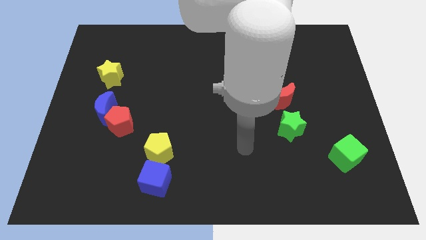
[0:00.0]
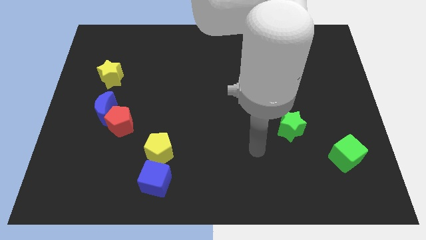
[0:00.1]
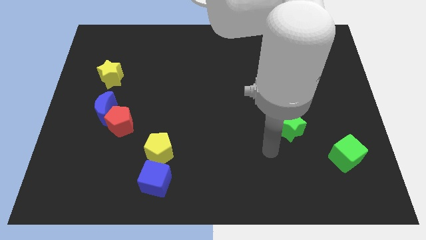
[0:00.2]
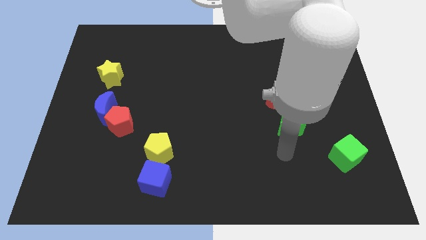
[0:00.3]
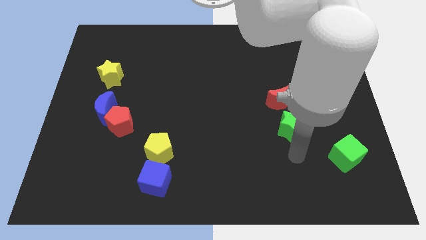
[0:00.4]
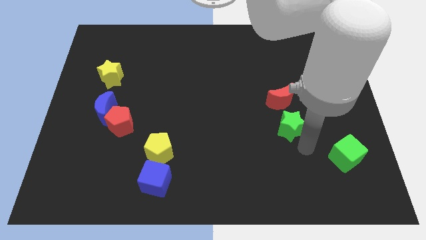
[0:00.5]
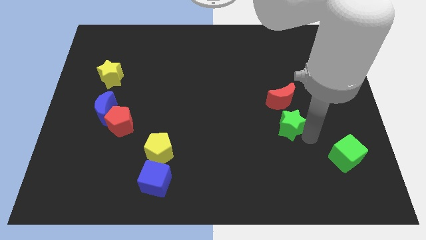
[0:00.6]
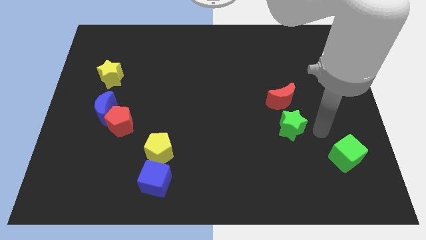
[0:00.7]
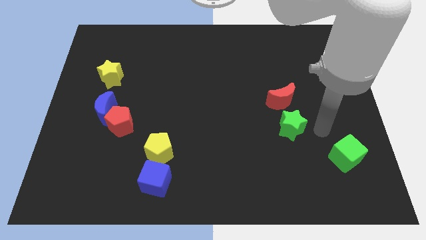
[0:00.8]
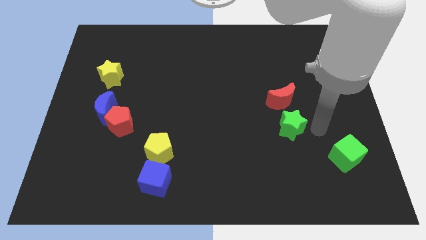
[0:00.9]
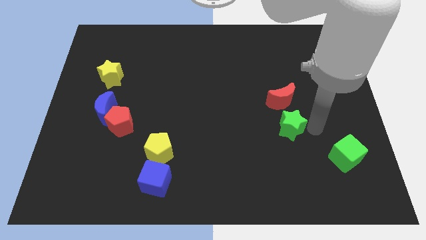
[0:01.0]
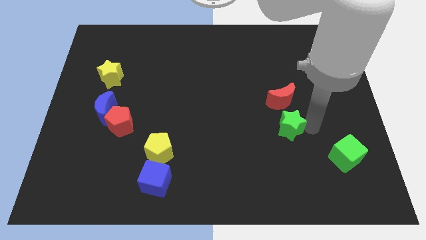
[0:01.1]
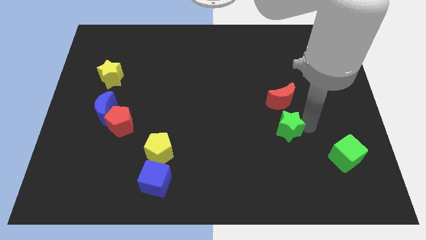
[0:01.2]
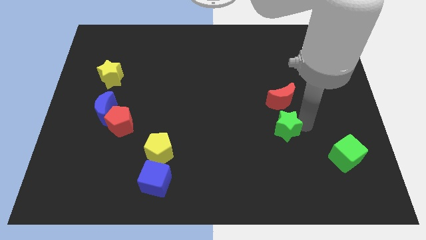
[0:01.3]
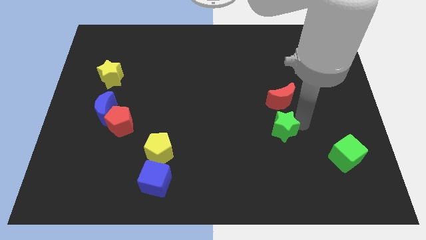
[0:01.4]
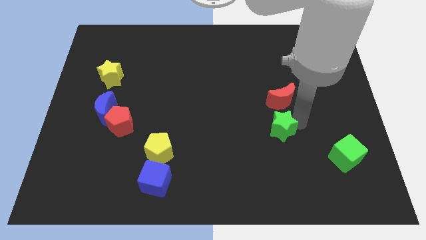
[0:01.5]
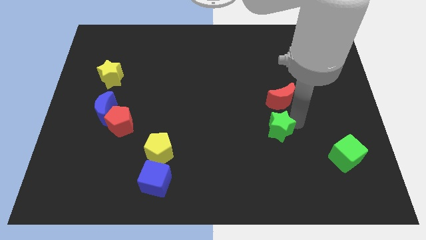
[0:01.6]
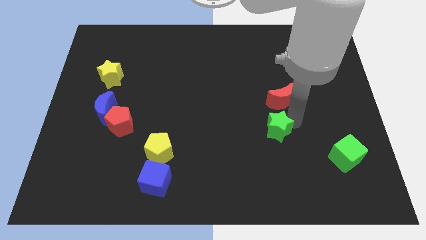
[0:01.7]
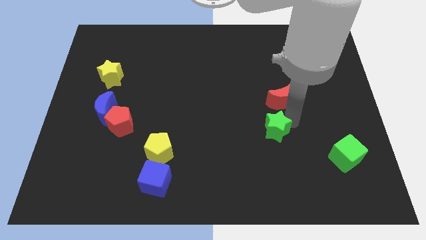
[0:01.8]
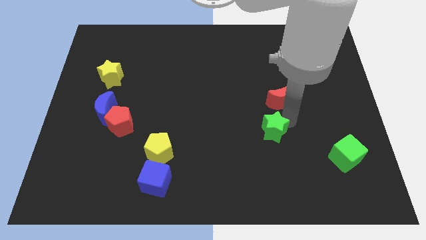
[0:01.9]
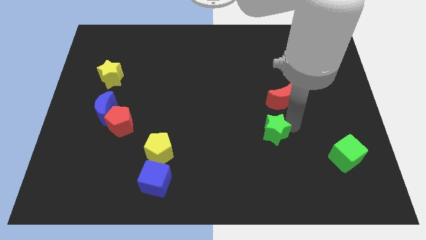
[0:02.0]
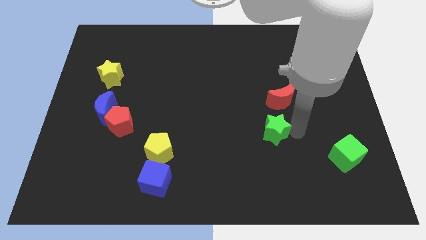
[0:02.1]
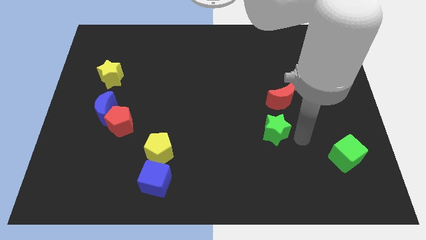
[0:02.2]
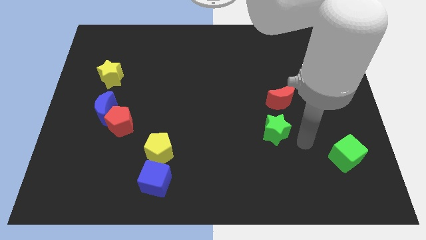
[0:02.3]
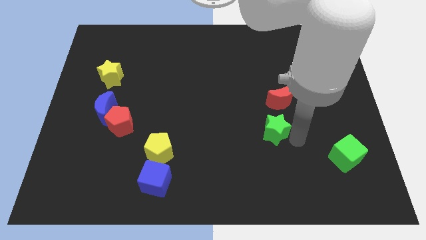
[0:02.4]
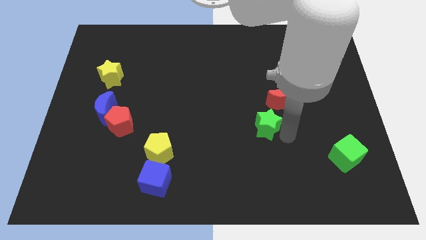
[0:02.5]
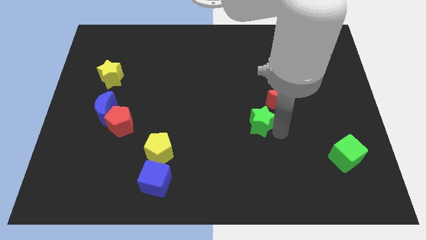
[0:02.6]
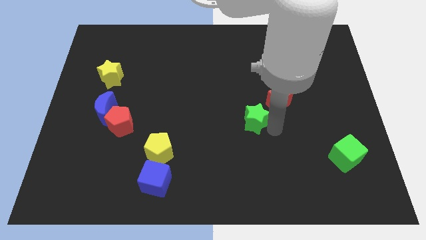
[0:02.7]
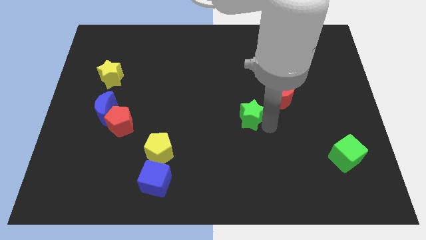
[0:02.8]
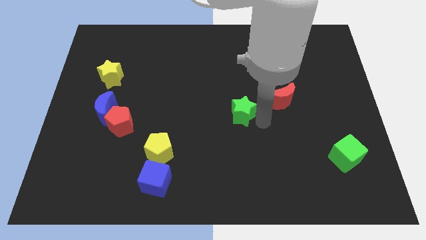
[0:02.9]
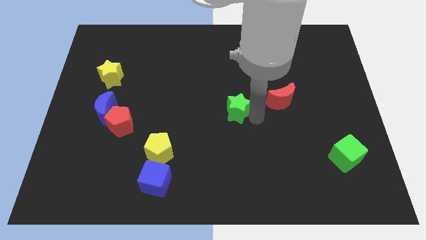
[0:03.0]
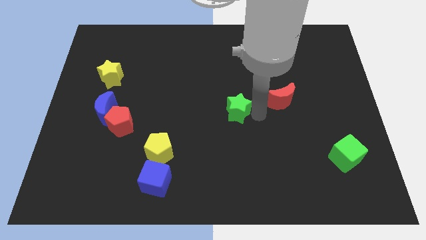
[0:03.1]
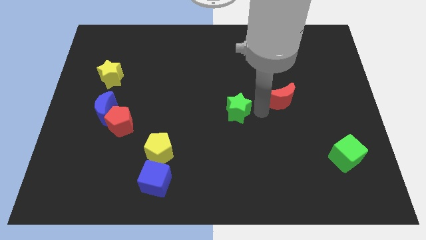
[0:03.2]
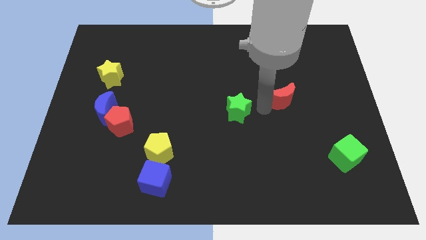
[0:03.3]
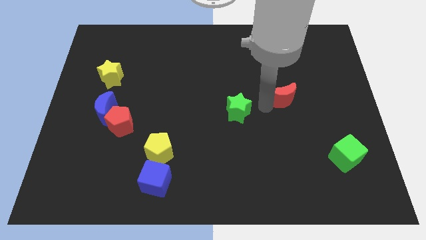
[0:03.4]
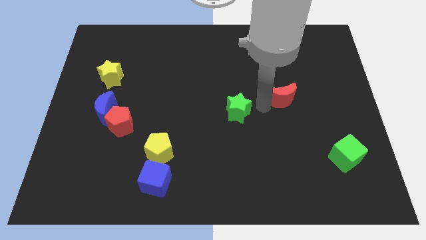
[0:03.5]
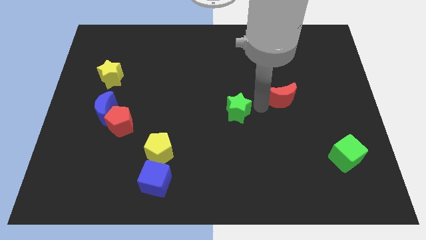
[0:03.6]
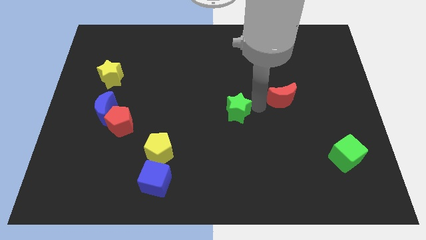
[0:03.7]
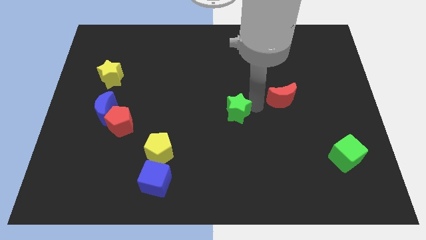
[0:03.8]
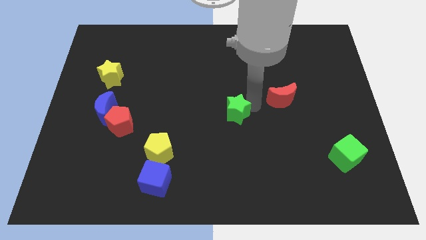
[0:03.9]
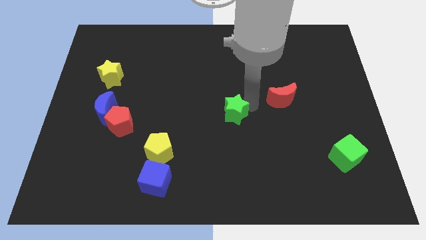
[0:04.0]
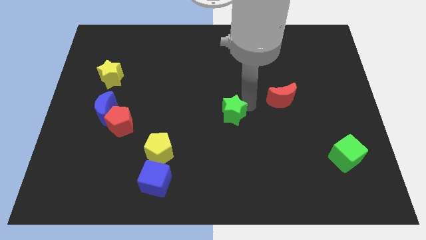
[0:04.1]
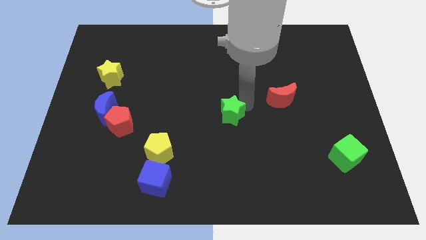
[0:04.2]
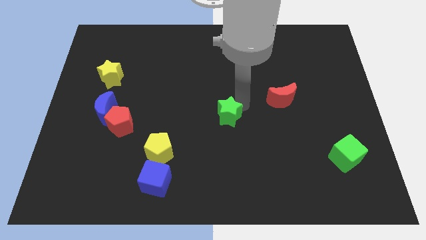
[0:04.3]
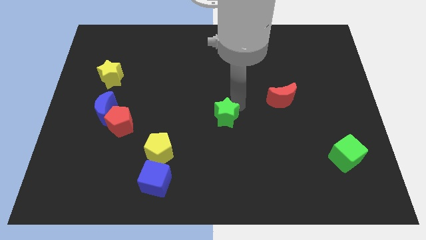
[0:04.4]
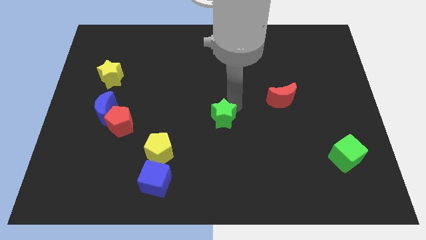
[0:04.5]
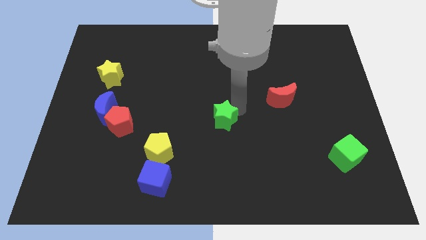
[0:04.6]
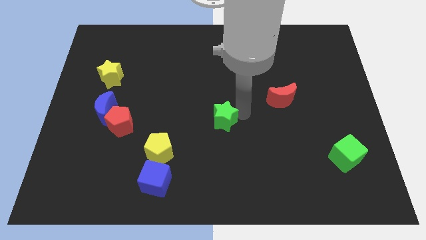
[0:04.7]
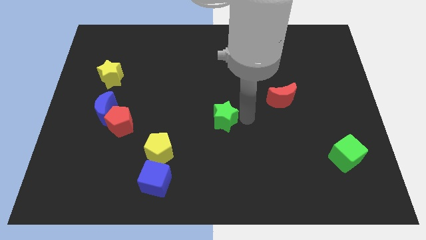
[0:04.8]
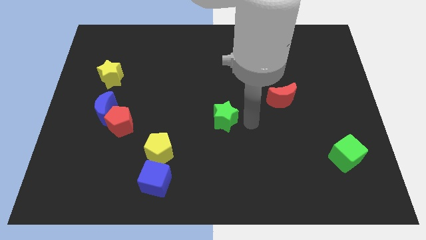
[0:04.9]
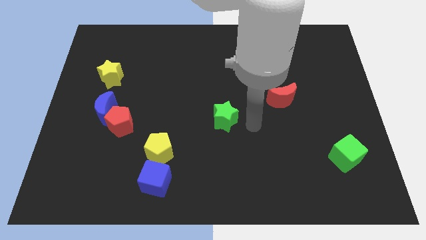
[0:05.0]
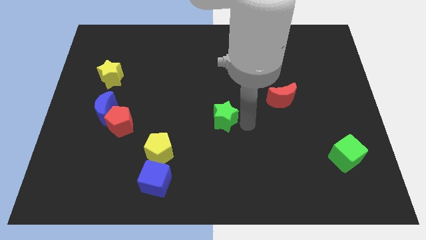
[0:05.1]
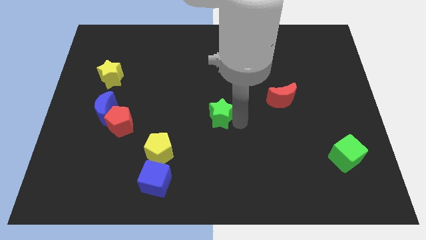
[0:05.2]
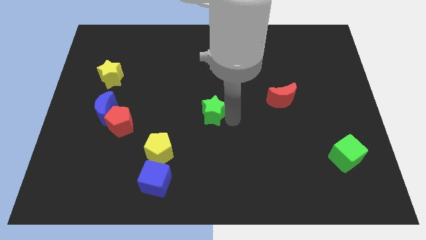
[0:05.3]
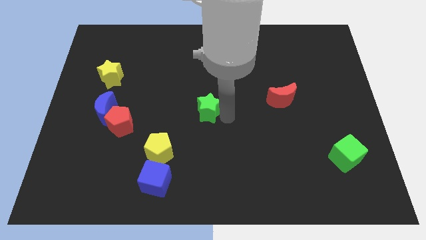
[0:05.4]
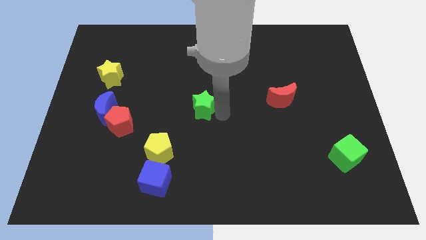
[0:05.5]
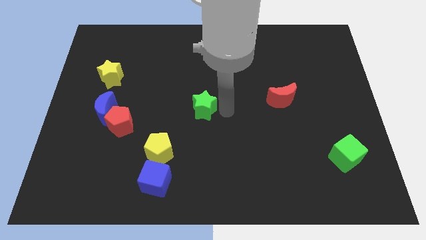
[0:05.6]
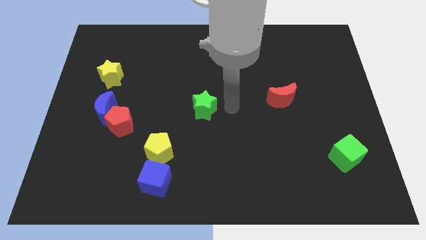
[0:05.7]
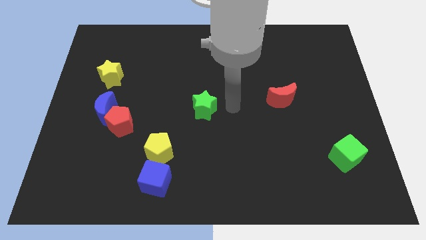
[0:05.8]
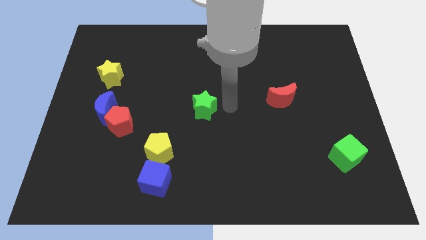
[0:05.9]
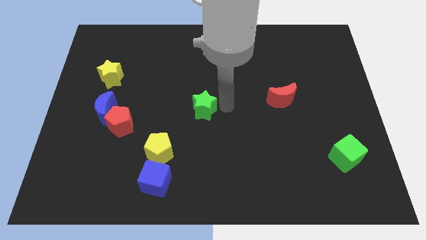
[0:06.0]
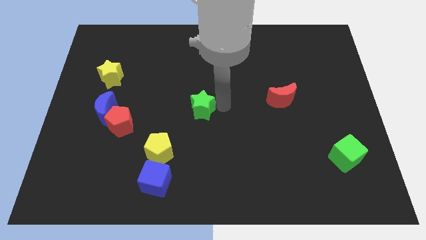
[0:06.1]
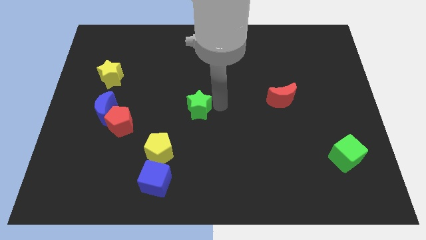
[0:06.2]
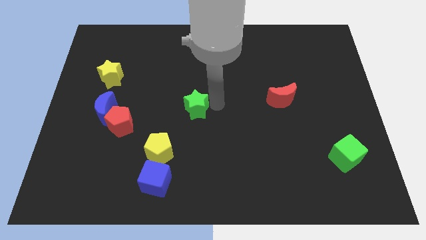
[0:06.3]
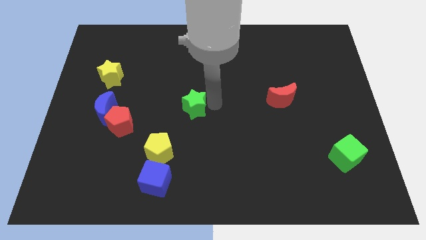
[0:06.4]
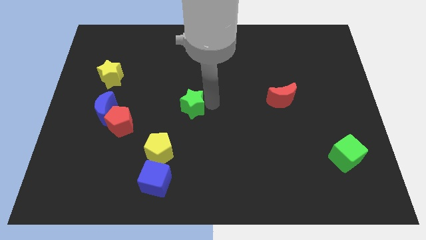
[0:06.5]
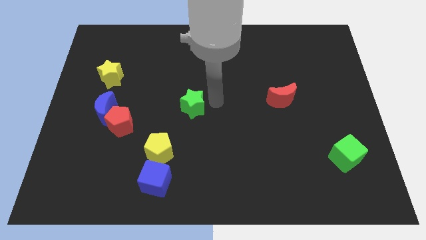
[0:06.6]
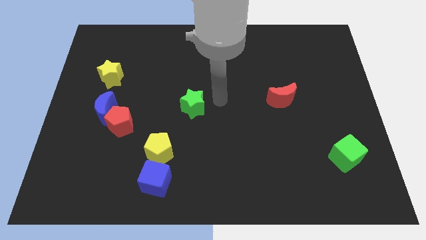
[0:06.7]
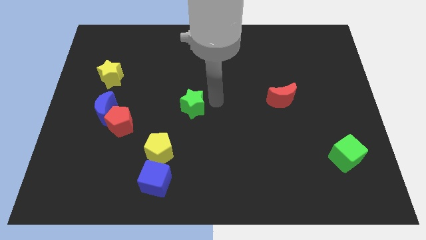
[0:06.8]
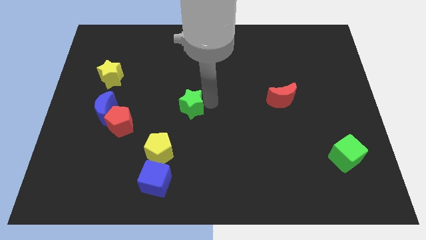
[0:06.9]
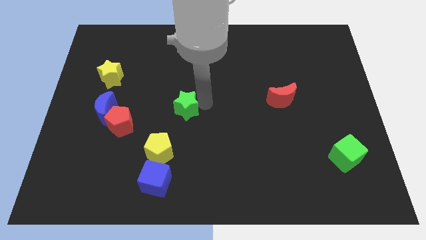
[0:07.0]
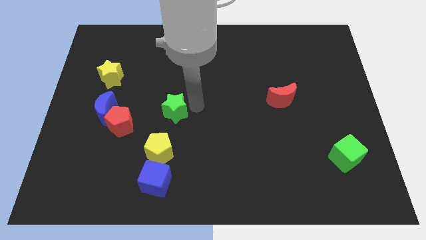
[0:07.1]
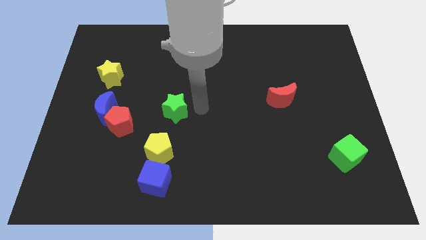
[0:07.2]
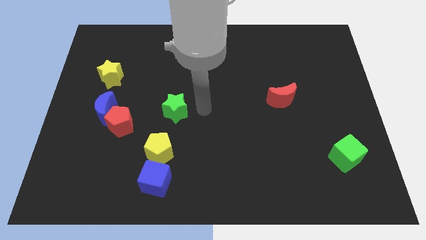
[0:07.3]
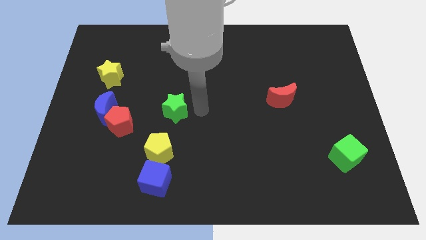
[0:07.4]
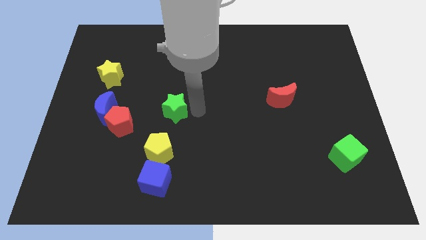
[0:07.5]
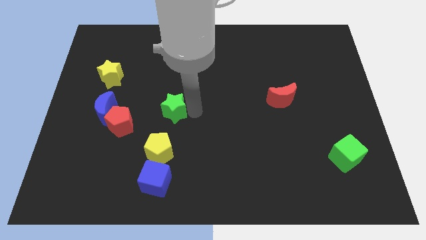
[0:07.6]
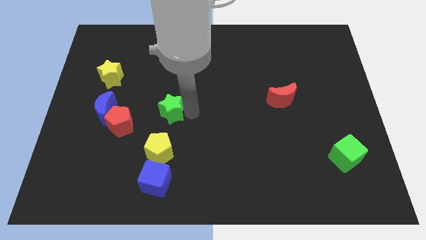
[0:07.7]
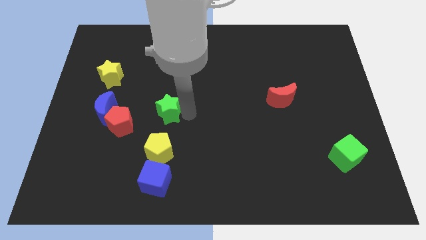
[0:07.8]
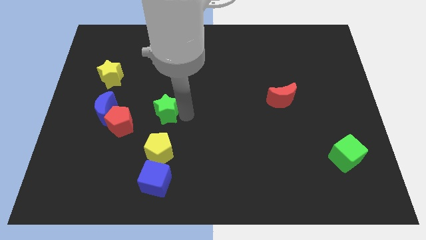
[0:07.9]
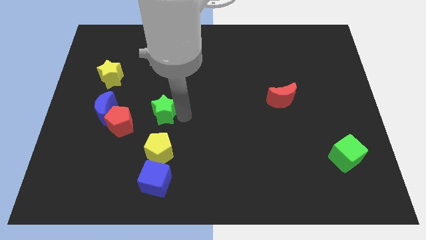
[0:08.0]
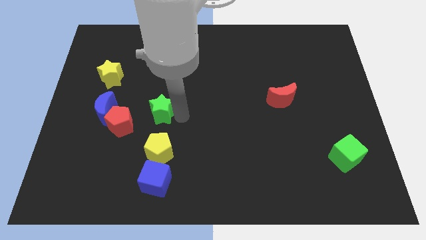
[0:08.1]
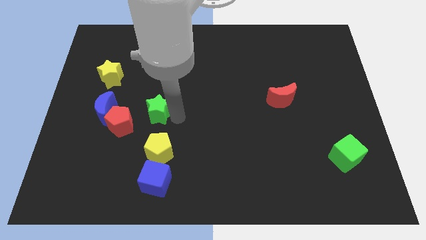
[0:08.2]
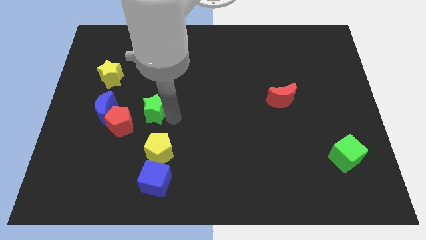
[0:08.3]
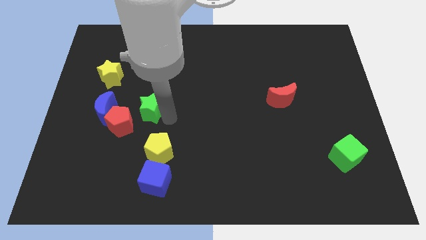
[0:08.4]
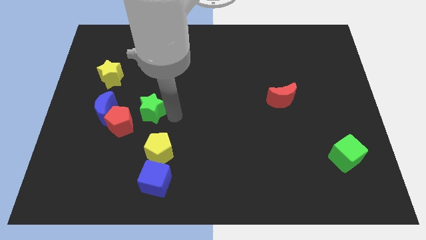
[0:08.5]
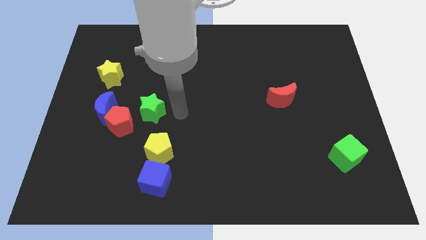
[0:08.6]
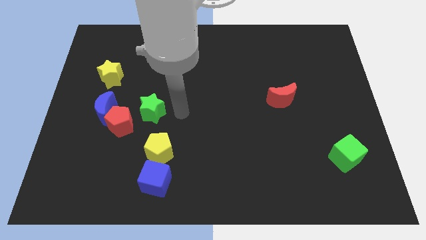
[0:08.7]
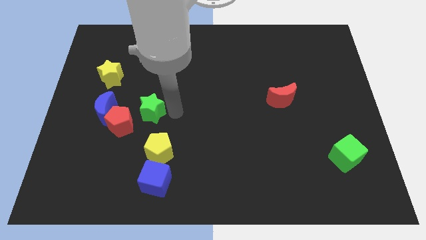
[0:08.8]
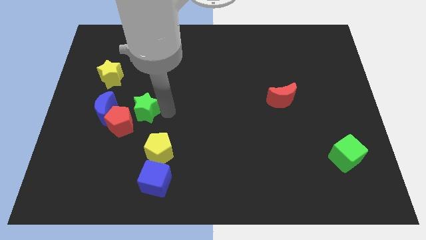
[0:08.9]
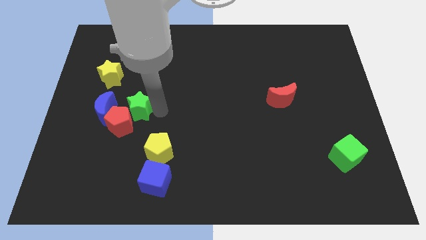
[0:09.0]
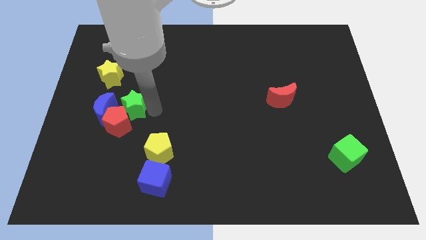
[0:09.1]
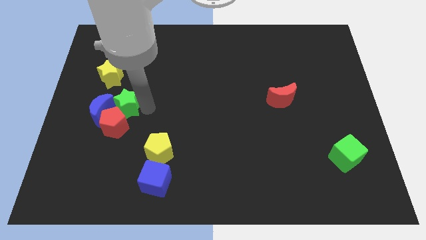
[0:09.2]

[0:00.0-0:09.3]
put the green star towards the blue moon
